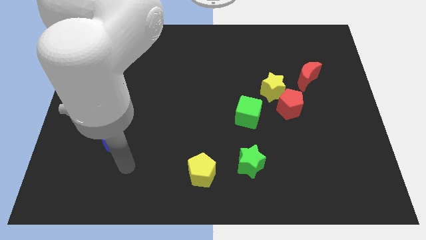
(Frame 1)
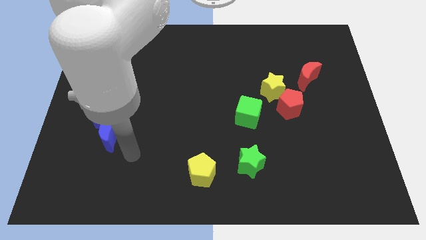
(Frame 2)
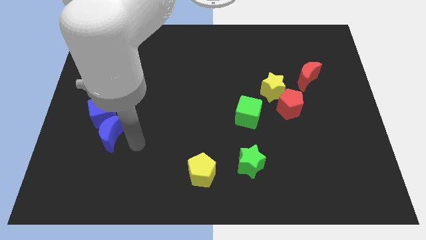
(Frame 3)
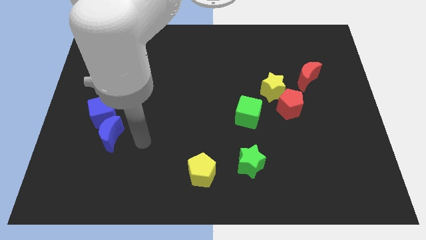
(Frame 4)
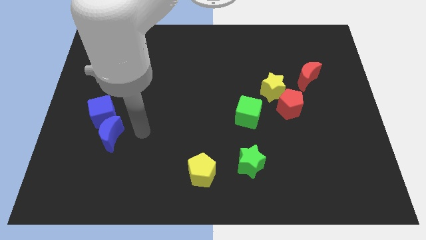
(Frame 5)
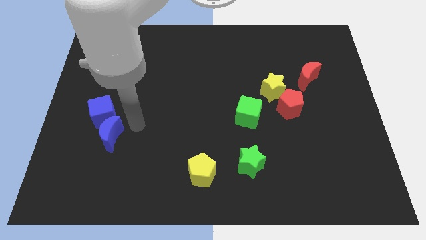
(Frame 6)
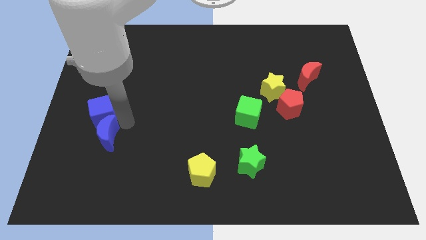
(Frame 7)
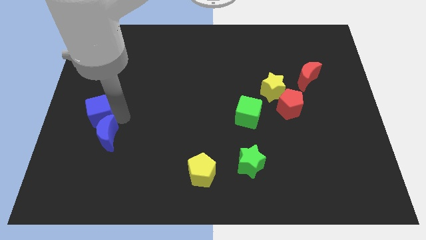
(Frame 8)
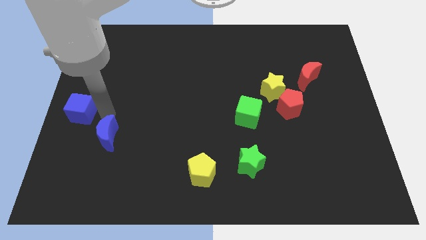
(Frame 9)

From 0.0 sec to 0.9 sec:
move the blue moon away from the blue cube

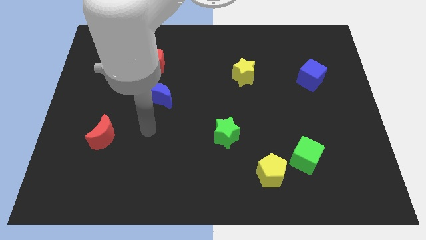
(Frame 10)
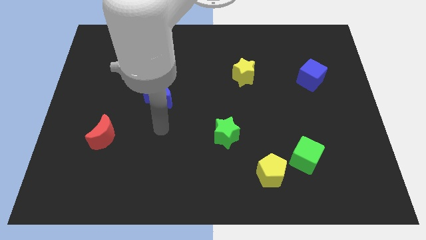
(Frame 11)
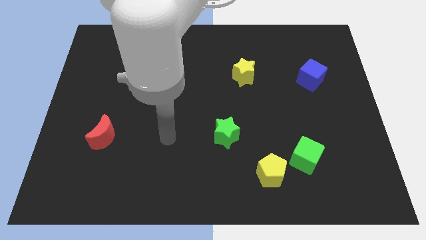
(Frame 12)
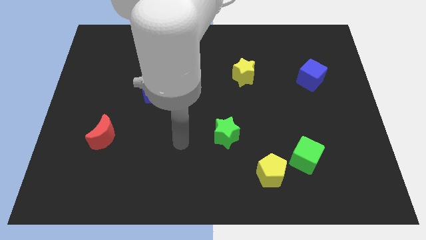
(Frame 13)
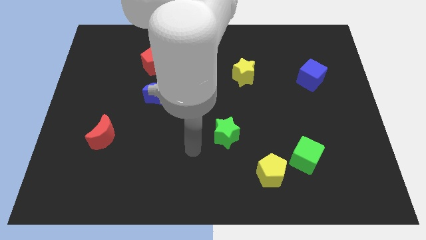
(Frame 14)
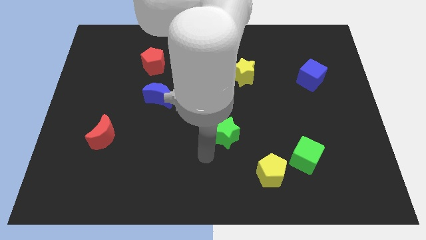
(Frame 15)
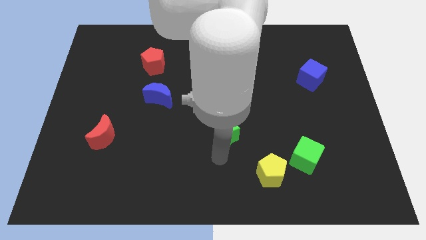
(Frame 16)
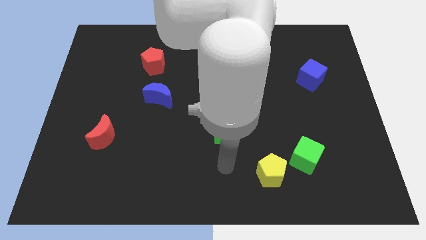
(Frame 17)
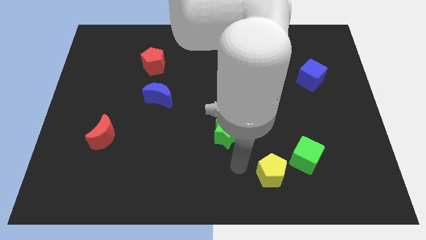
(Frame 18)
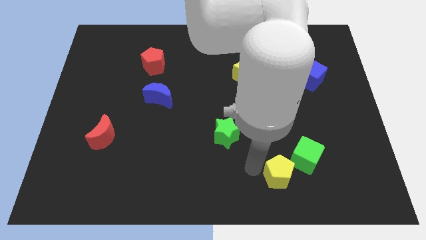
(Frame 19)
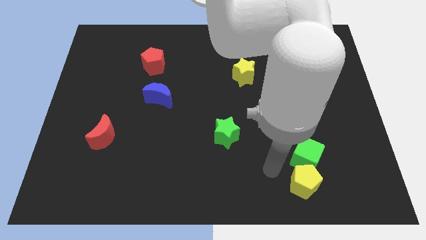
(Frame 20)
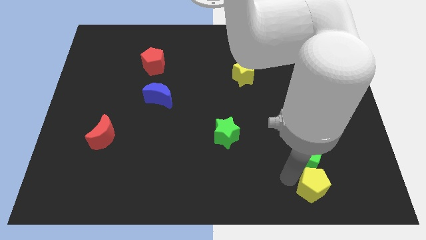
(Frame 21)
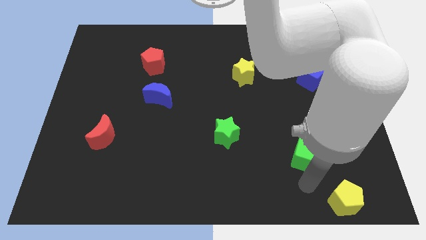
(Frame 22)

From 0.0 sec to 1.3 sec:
pull the green cube apart from the yellow pentagon

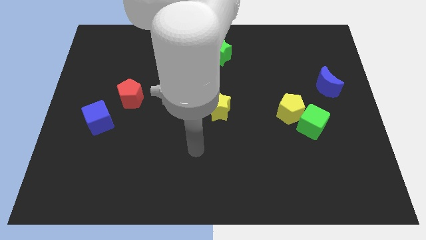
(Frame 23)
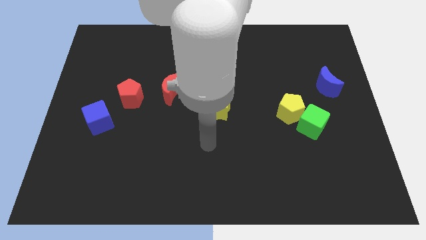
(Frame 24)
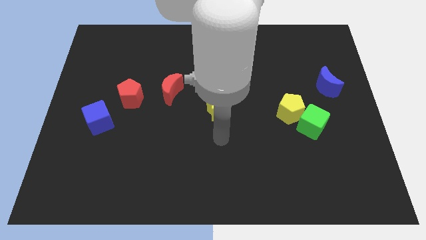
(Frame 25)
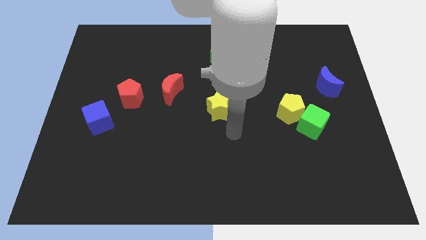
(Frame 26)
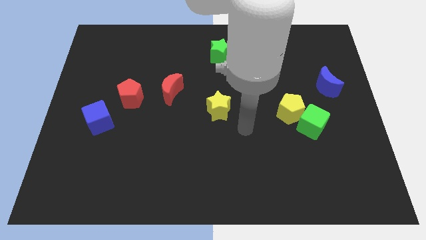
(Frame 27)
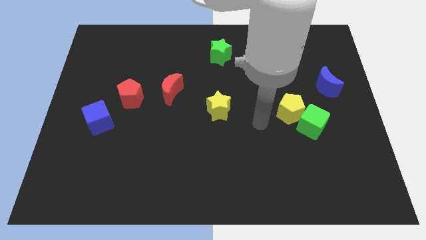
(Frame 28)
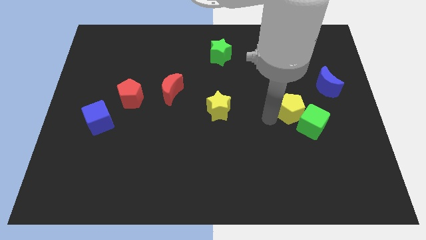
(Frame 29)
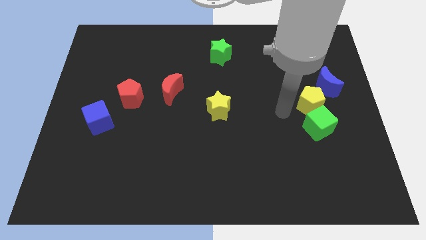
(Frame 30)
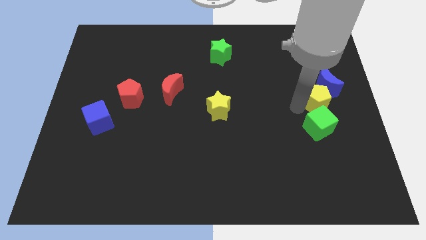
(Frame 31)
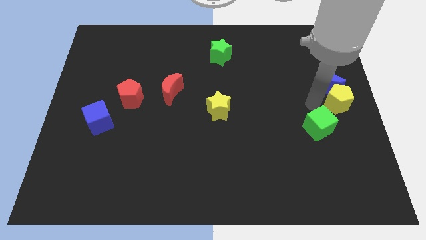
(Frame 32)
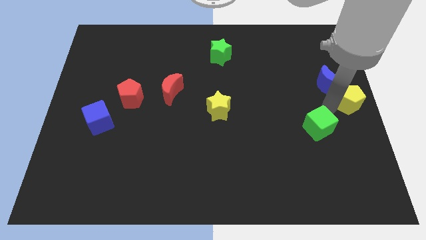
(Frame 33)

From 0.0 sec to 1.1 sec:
separate the green cube from the yellow pentagon

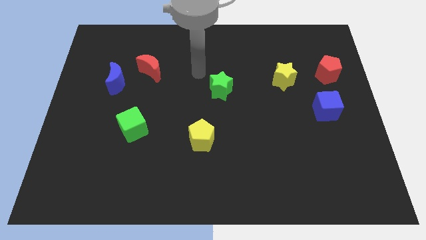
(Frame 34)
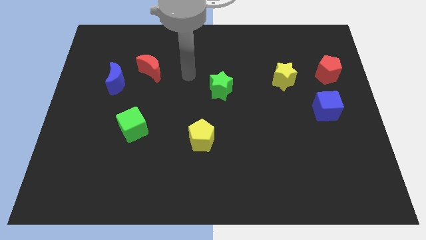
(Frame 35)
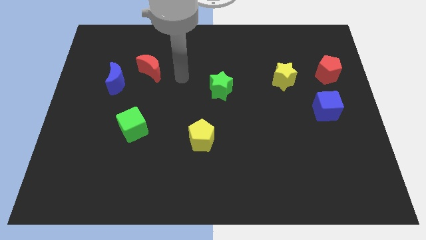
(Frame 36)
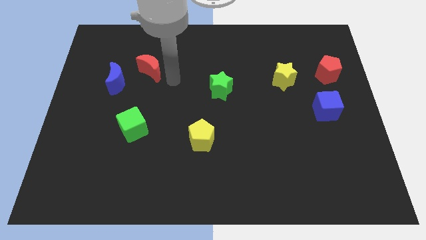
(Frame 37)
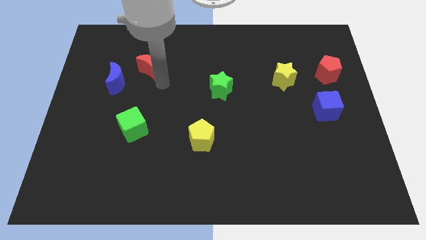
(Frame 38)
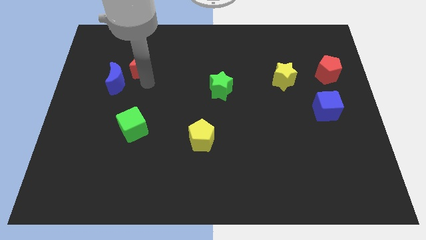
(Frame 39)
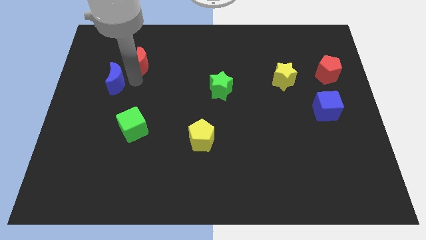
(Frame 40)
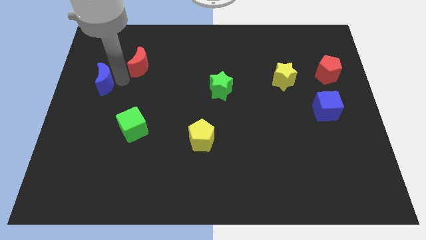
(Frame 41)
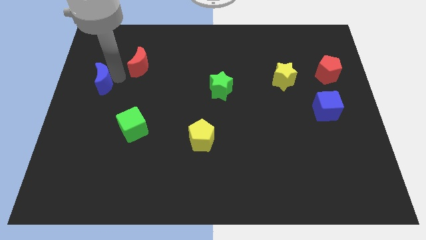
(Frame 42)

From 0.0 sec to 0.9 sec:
separate the red moon from the blue moon

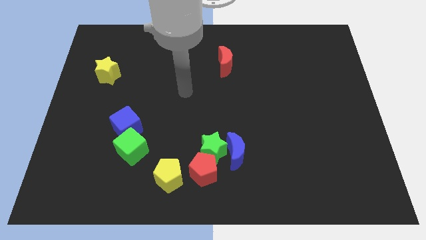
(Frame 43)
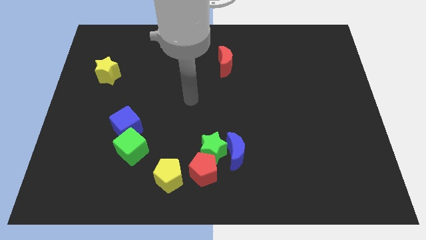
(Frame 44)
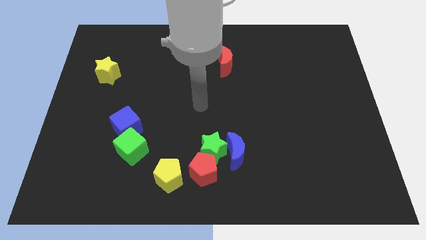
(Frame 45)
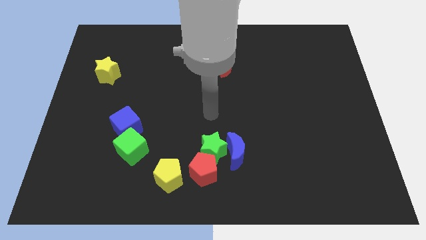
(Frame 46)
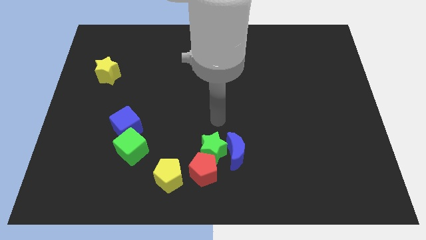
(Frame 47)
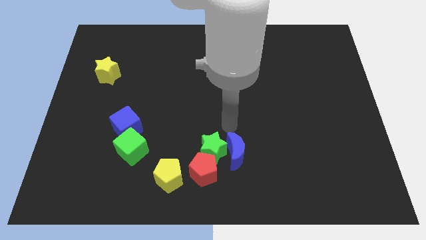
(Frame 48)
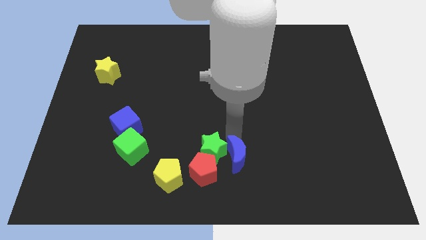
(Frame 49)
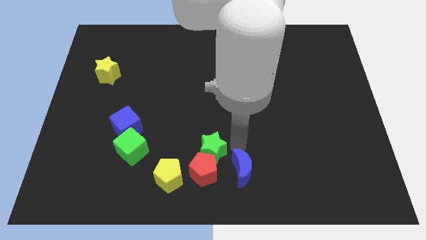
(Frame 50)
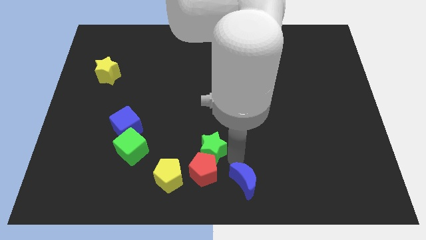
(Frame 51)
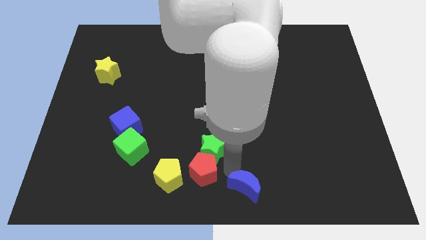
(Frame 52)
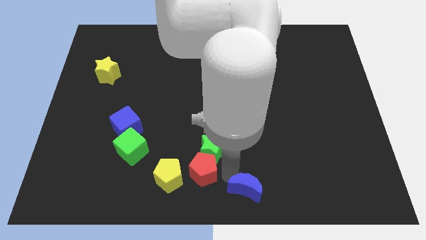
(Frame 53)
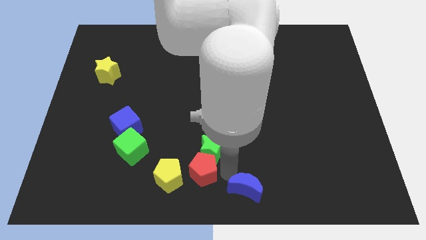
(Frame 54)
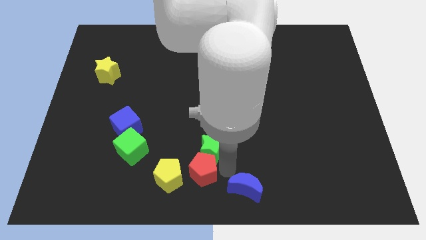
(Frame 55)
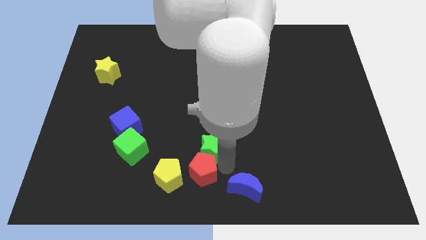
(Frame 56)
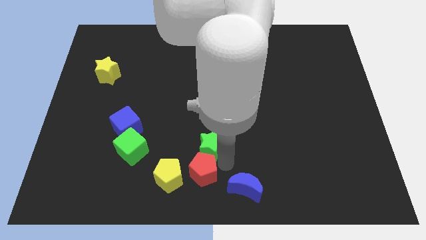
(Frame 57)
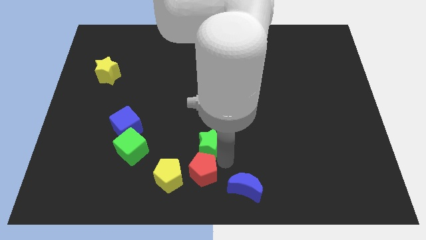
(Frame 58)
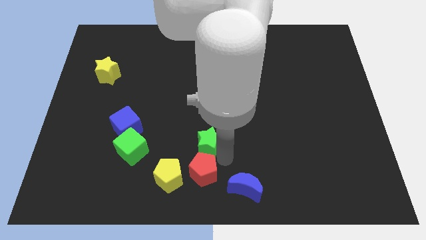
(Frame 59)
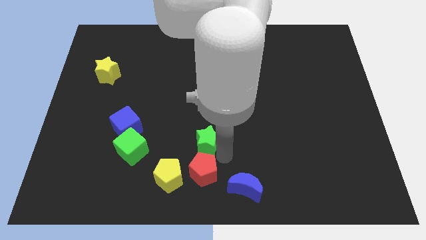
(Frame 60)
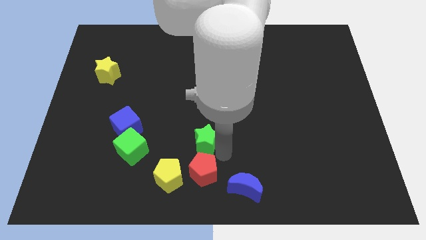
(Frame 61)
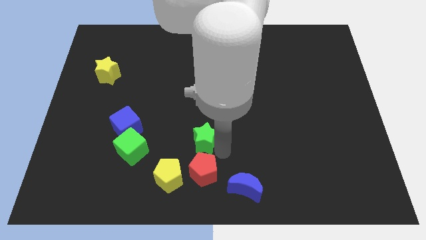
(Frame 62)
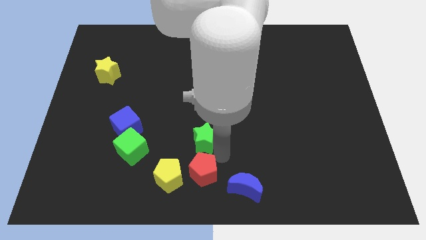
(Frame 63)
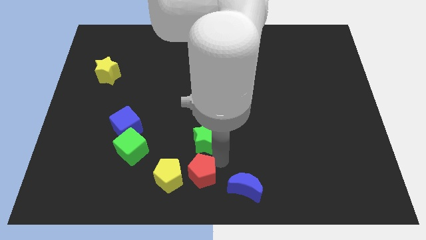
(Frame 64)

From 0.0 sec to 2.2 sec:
separate the green star from the red pentagon and blue moon

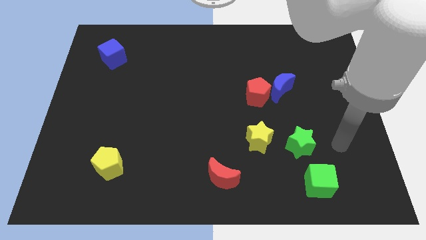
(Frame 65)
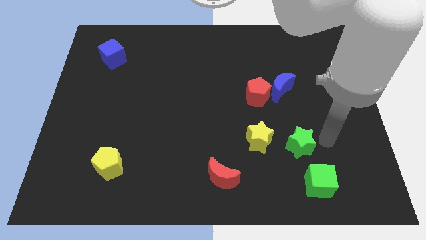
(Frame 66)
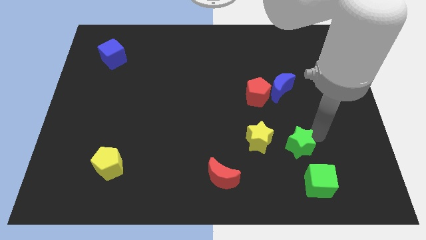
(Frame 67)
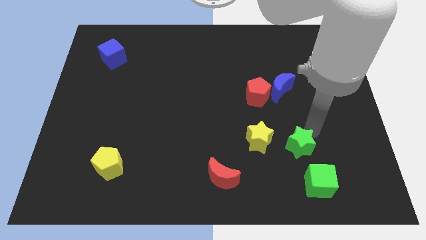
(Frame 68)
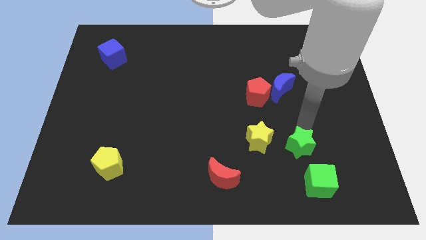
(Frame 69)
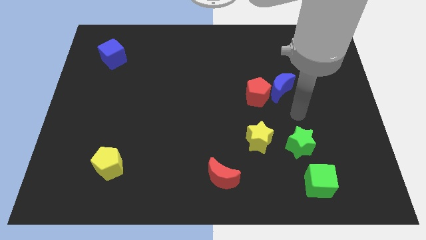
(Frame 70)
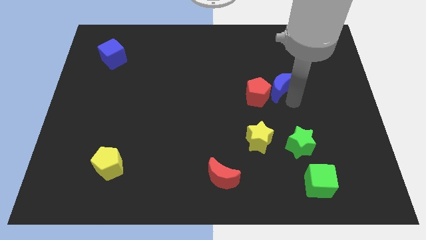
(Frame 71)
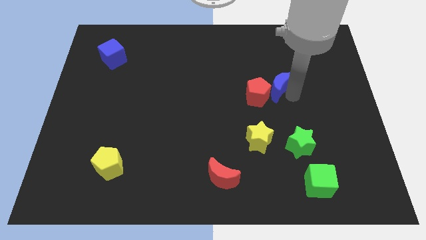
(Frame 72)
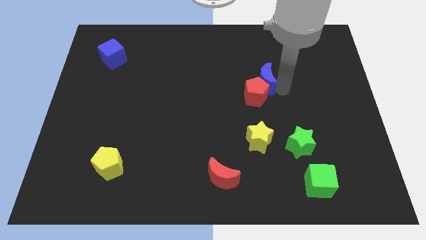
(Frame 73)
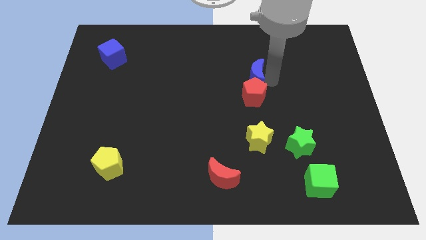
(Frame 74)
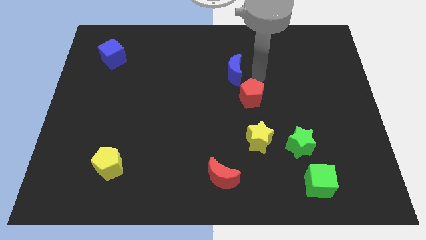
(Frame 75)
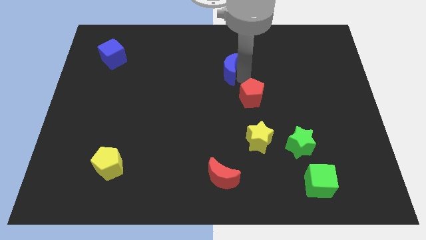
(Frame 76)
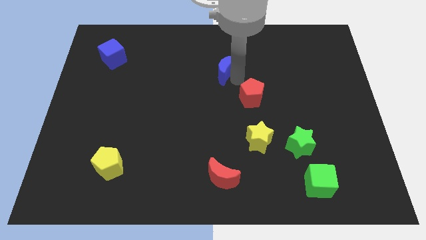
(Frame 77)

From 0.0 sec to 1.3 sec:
move the red pentagon away from the blue moon

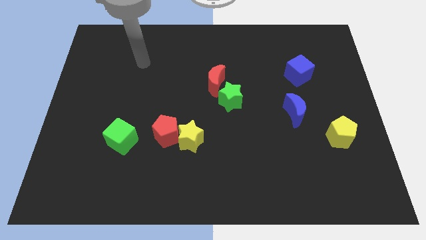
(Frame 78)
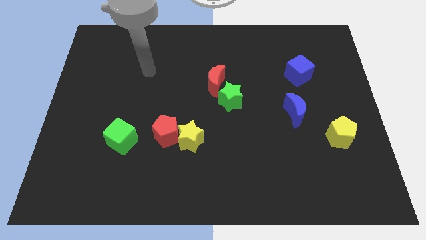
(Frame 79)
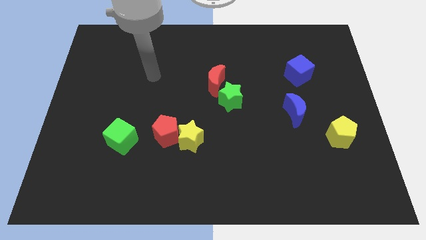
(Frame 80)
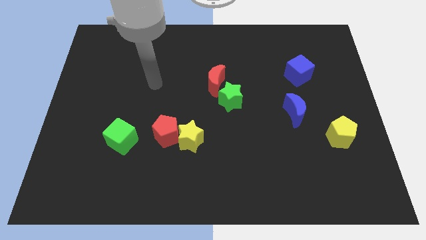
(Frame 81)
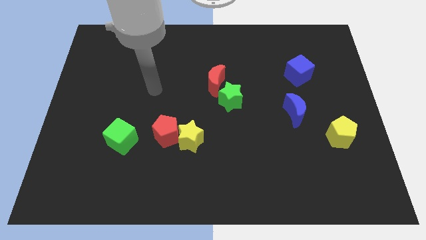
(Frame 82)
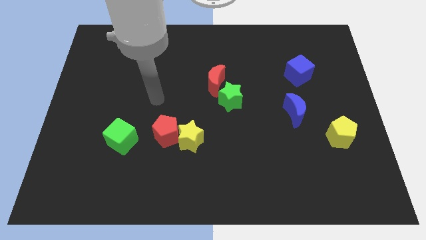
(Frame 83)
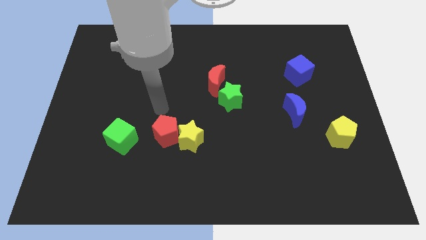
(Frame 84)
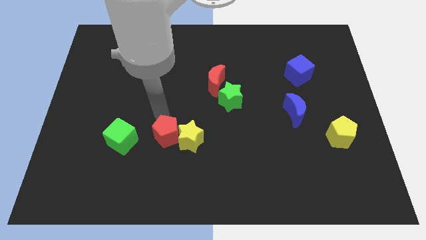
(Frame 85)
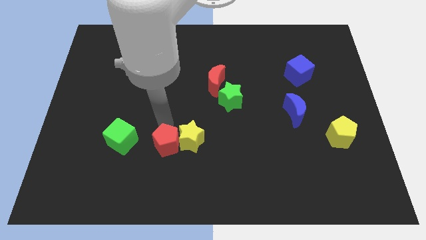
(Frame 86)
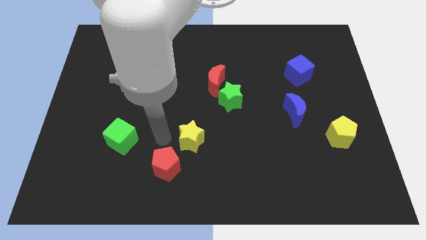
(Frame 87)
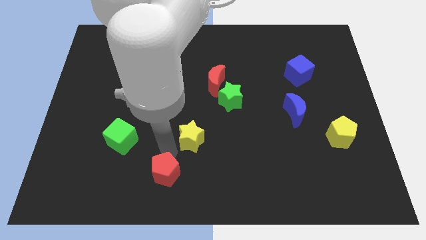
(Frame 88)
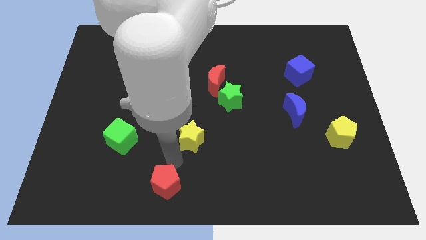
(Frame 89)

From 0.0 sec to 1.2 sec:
pull the yellow star apart from the red pentagon

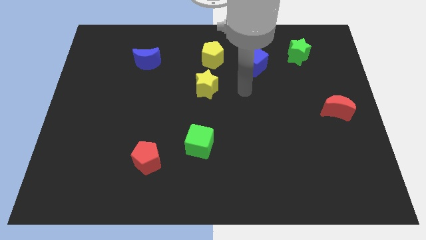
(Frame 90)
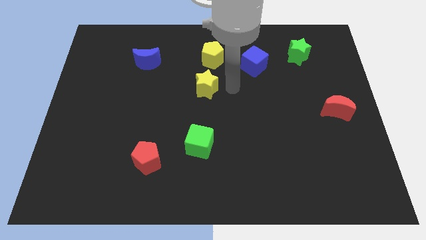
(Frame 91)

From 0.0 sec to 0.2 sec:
move the yellow star away from the yellow pentagon
